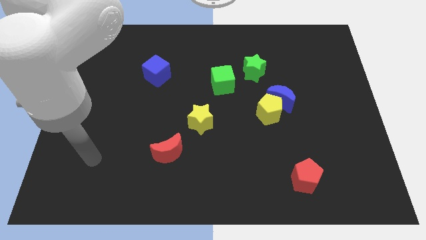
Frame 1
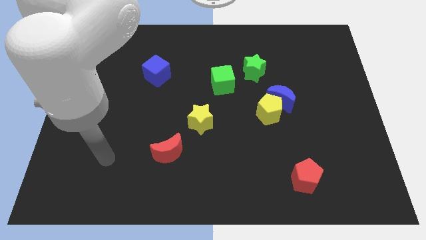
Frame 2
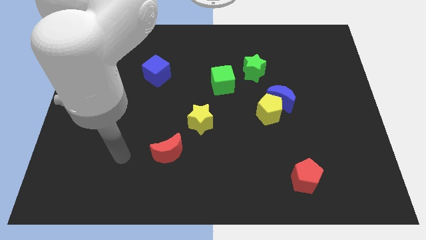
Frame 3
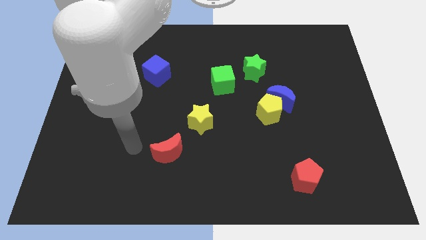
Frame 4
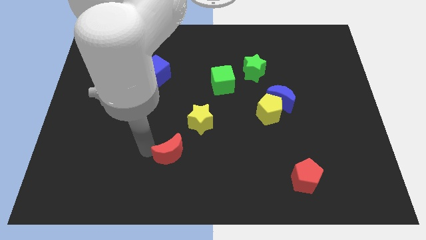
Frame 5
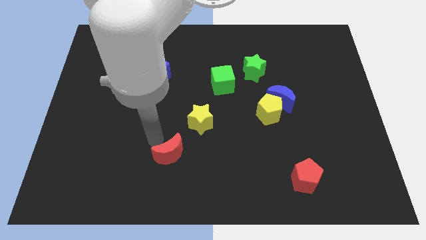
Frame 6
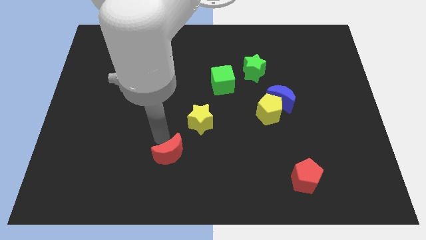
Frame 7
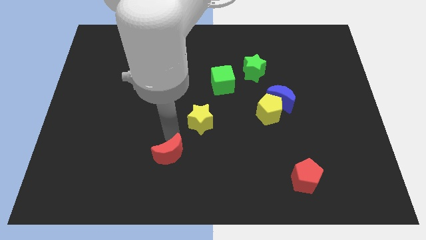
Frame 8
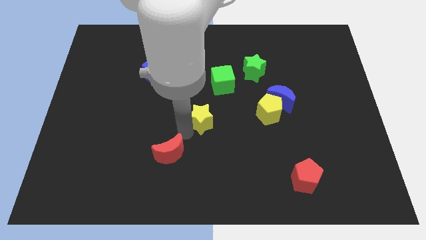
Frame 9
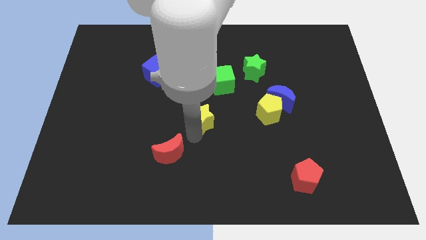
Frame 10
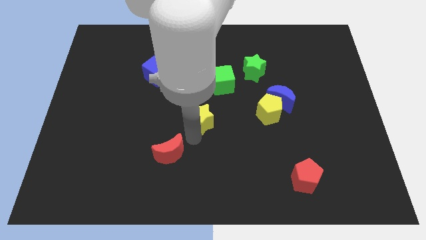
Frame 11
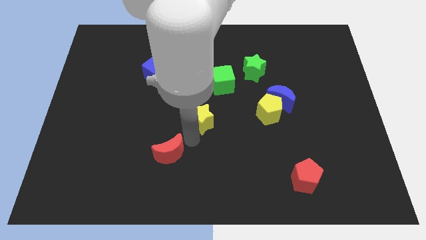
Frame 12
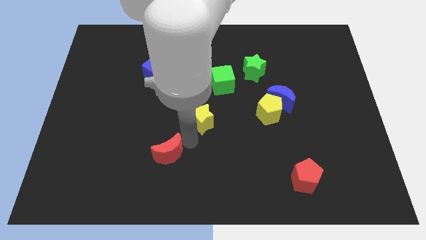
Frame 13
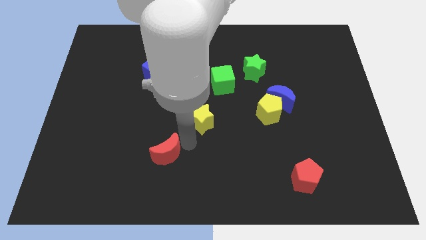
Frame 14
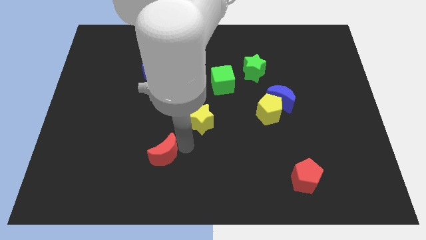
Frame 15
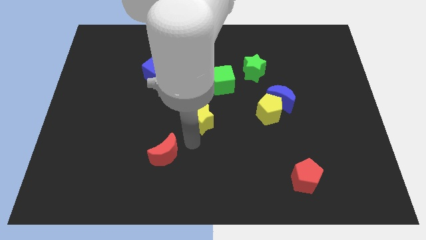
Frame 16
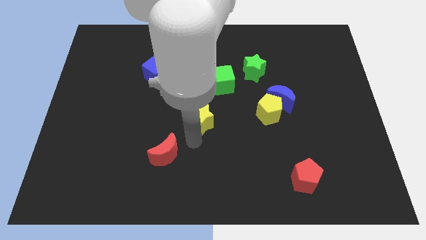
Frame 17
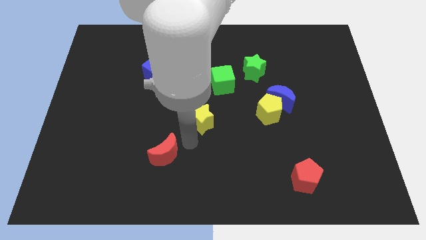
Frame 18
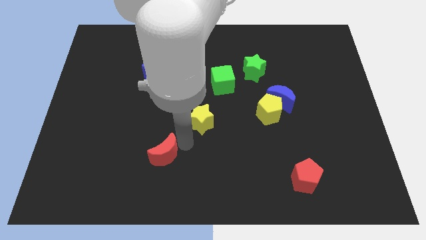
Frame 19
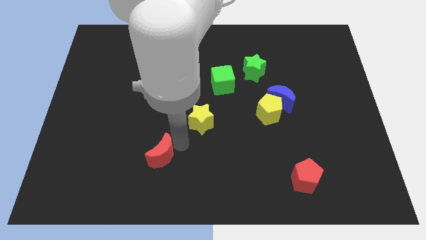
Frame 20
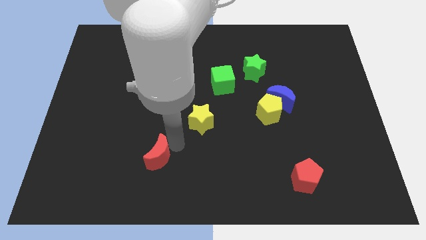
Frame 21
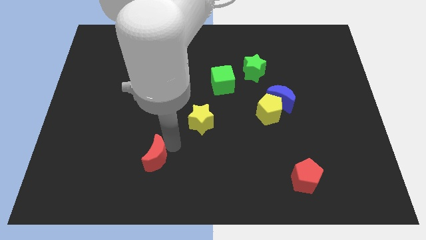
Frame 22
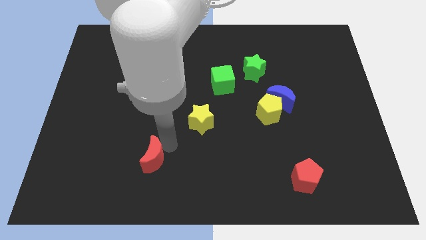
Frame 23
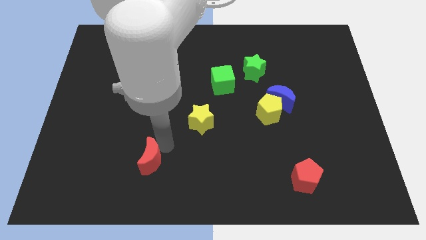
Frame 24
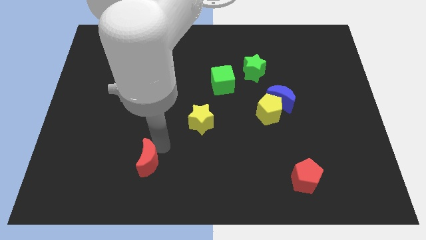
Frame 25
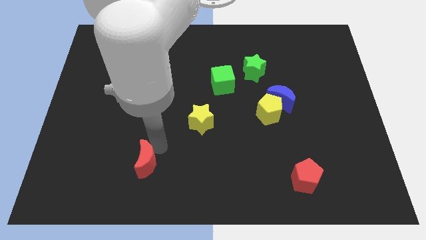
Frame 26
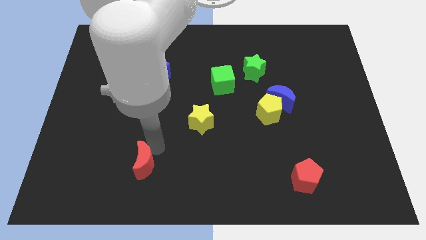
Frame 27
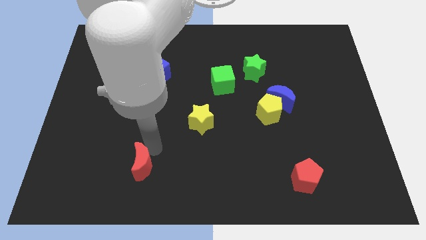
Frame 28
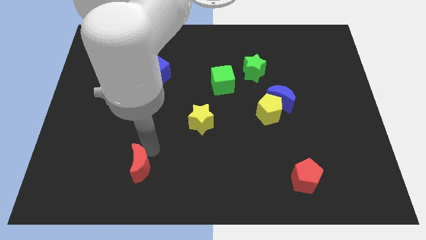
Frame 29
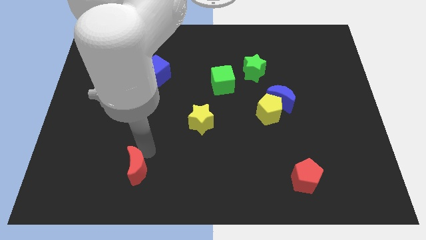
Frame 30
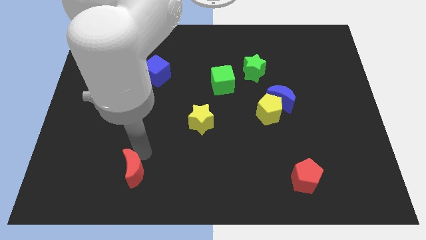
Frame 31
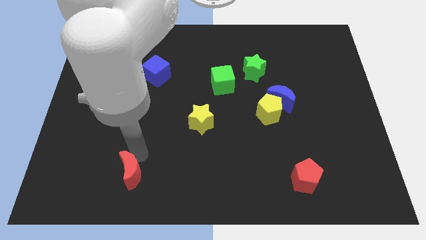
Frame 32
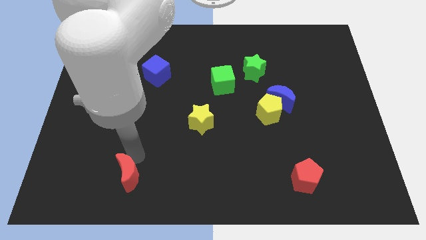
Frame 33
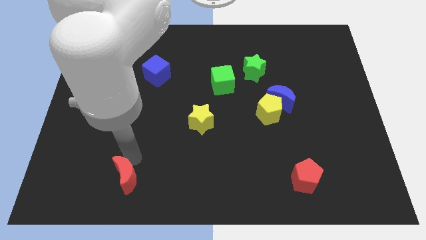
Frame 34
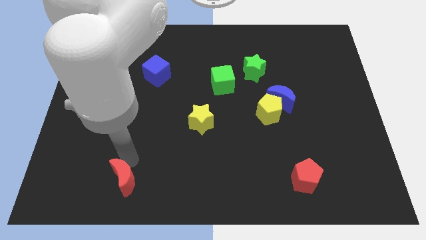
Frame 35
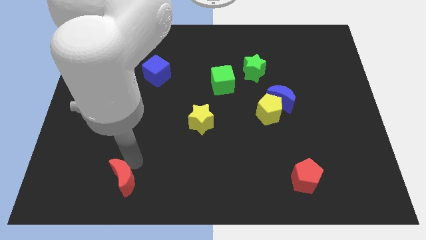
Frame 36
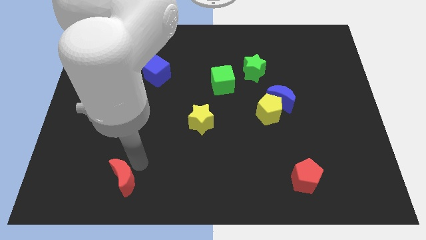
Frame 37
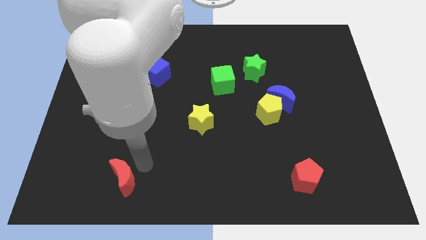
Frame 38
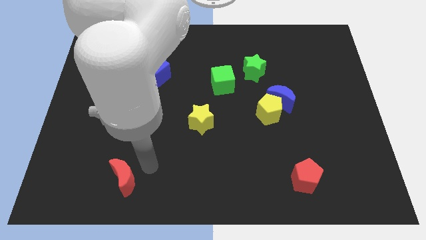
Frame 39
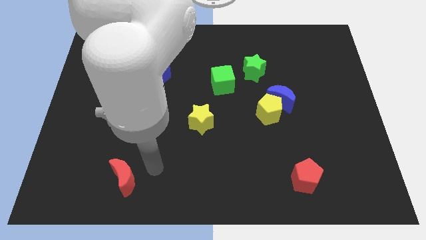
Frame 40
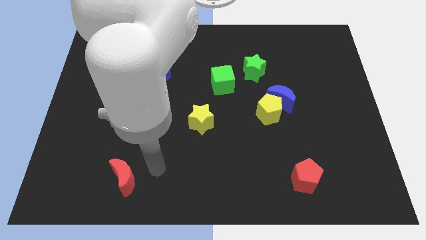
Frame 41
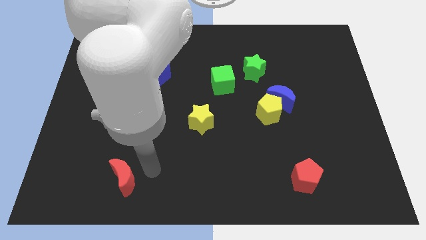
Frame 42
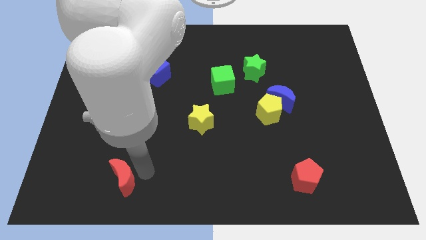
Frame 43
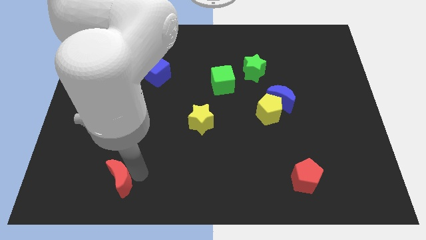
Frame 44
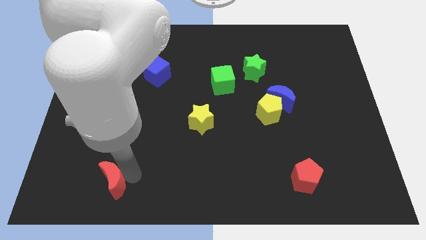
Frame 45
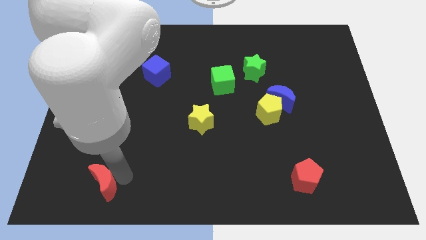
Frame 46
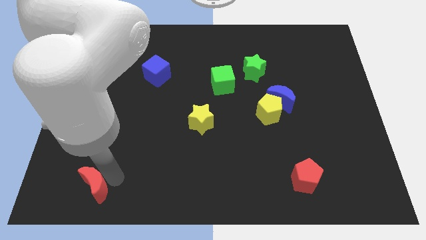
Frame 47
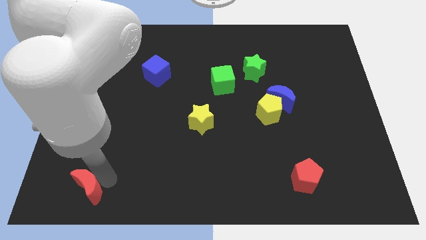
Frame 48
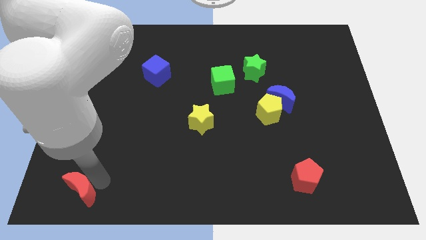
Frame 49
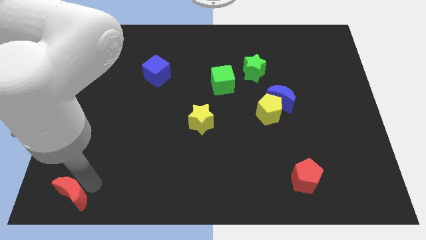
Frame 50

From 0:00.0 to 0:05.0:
put the red moon to the bottom left of the board
